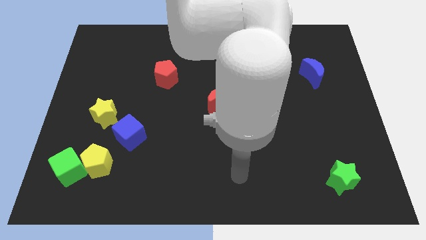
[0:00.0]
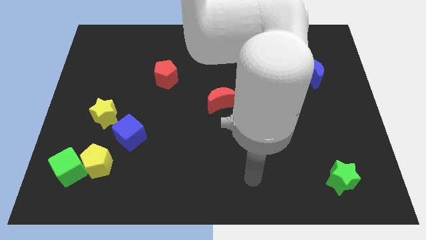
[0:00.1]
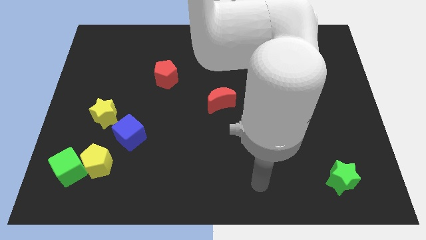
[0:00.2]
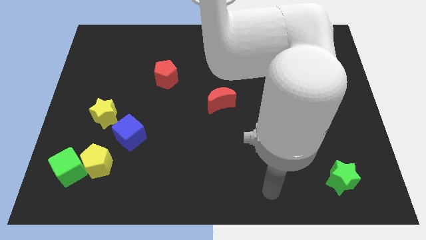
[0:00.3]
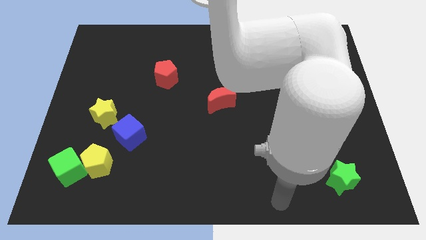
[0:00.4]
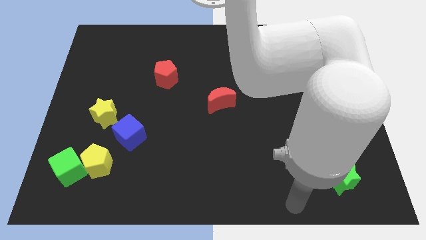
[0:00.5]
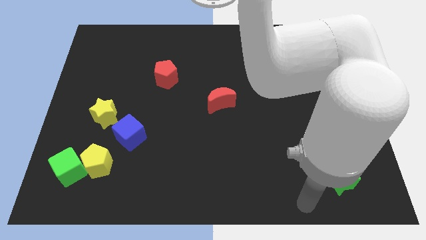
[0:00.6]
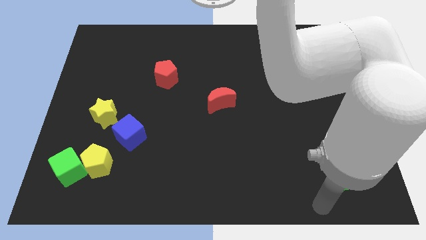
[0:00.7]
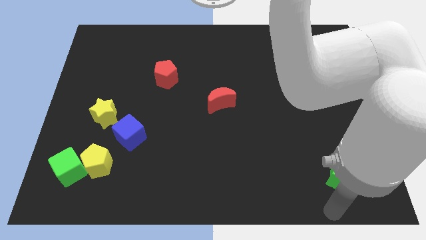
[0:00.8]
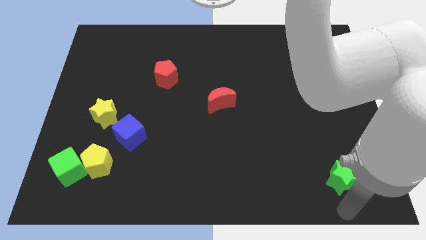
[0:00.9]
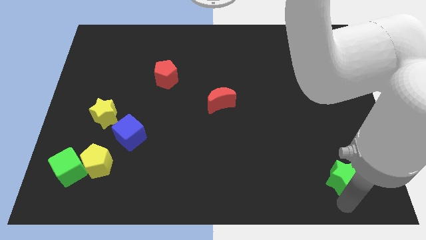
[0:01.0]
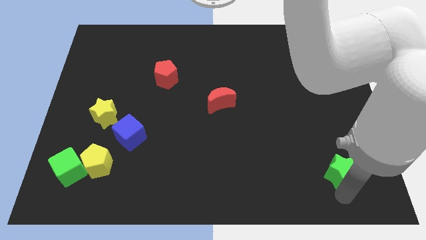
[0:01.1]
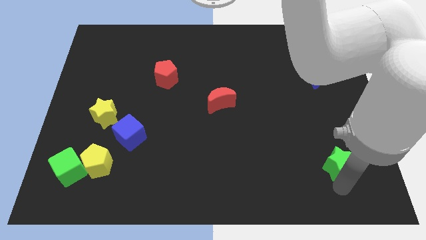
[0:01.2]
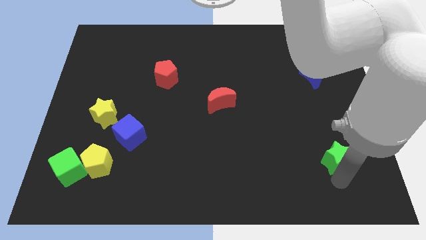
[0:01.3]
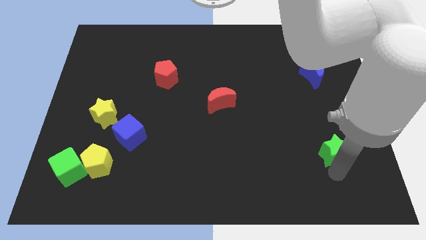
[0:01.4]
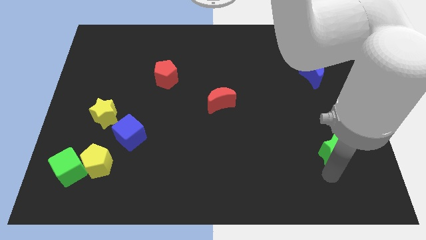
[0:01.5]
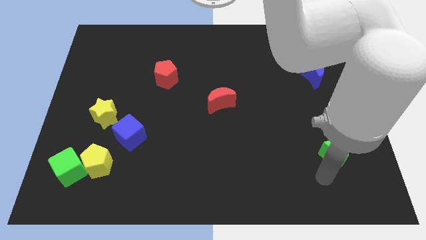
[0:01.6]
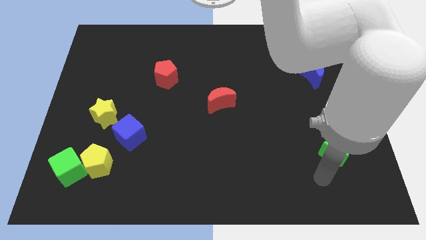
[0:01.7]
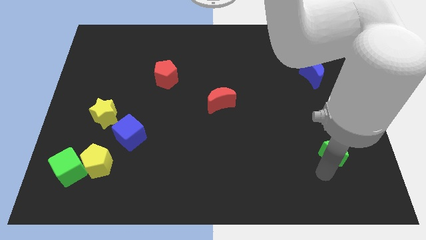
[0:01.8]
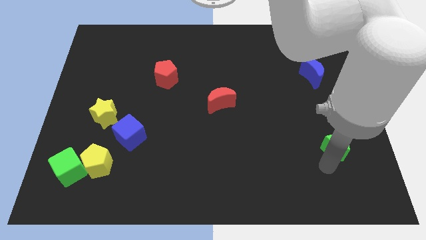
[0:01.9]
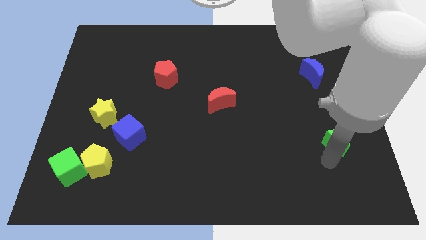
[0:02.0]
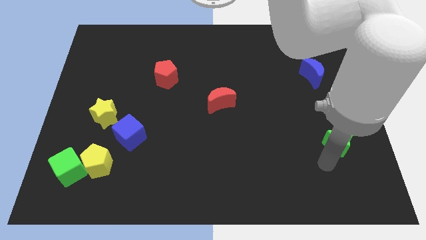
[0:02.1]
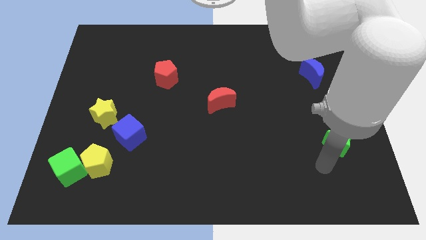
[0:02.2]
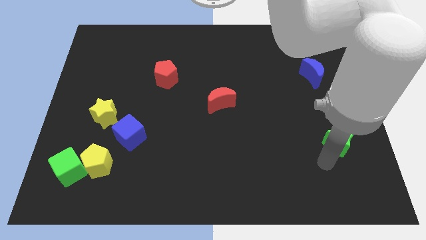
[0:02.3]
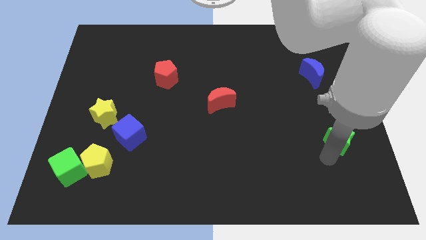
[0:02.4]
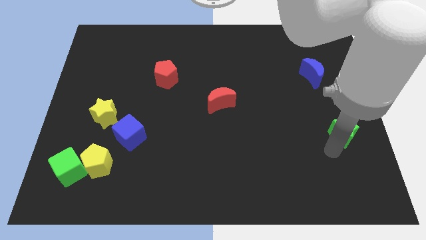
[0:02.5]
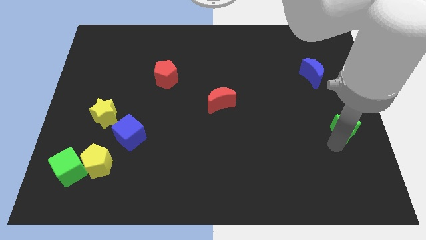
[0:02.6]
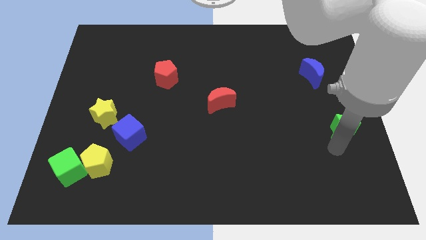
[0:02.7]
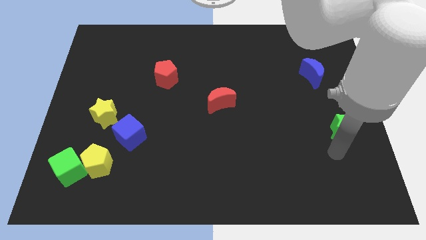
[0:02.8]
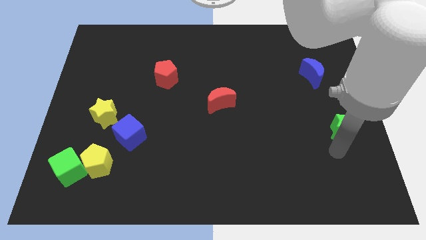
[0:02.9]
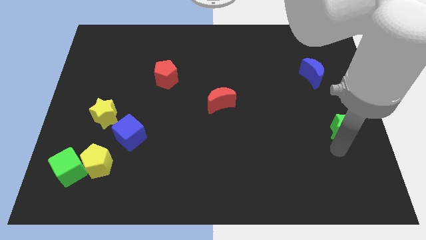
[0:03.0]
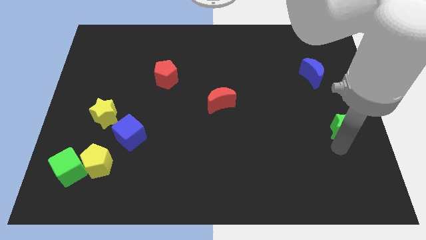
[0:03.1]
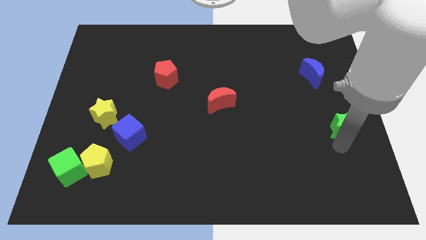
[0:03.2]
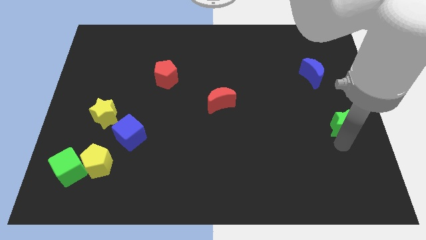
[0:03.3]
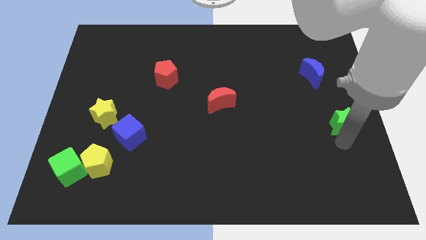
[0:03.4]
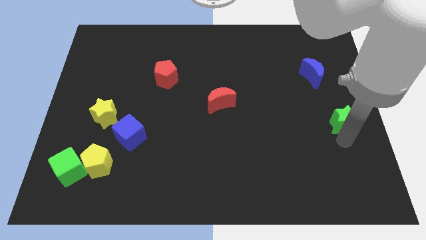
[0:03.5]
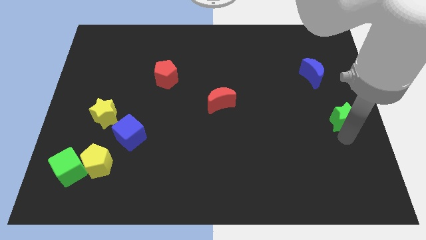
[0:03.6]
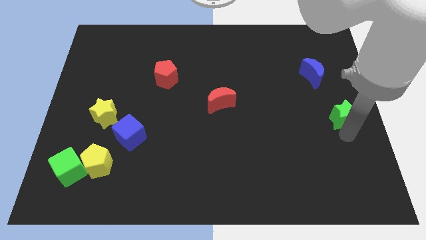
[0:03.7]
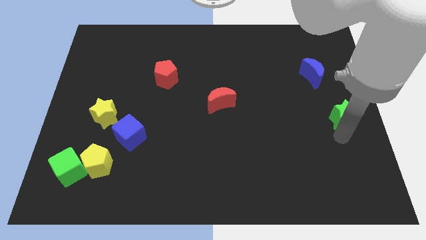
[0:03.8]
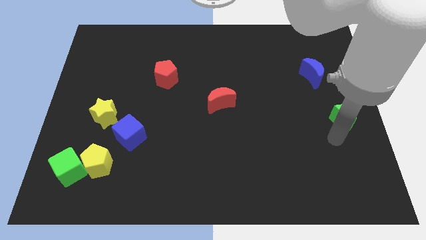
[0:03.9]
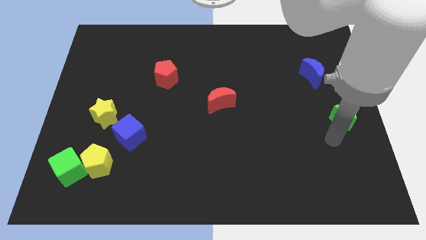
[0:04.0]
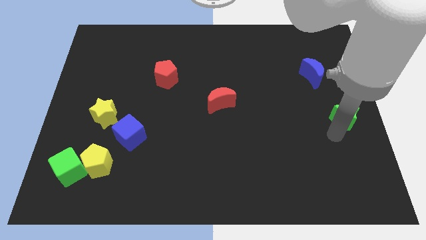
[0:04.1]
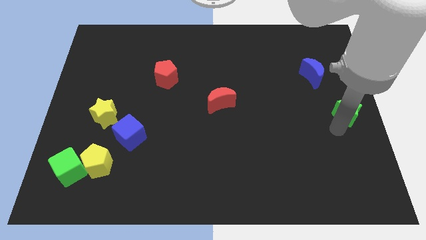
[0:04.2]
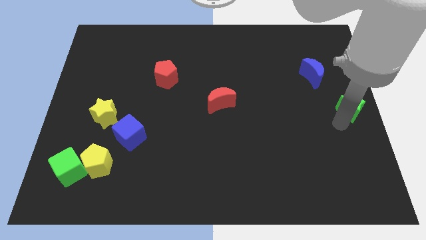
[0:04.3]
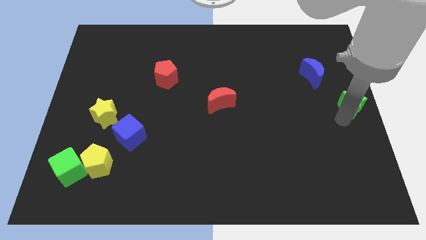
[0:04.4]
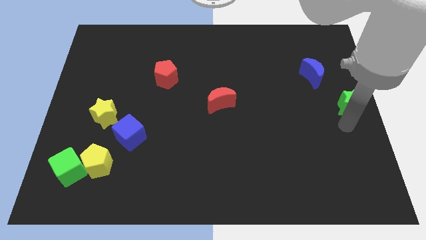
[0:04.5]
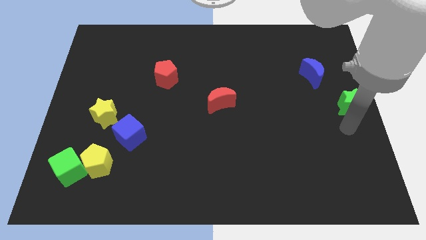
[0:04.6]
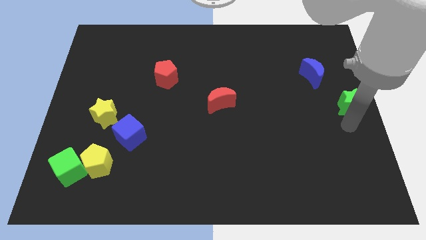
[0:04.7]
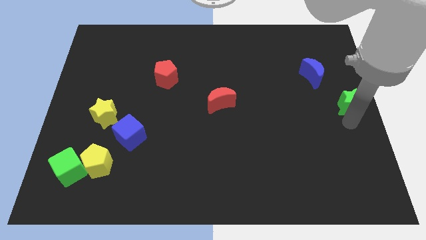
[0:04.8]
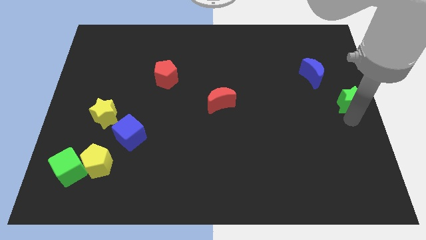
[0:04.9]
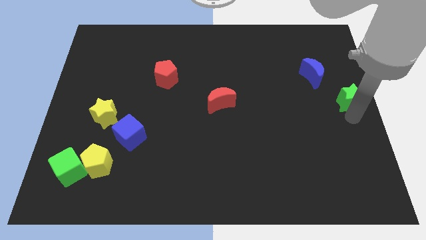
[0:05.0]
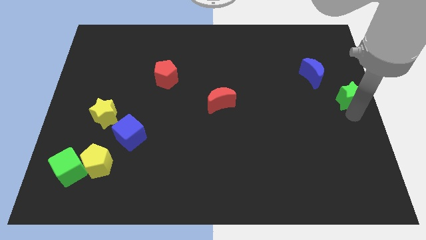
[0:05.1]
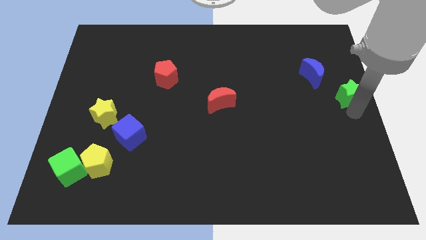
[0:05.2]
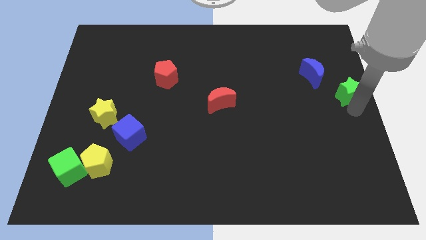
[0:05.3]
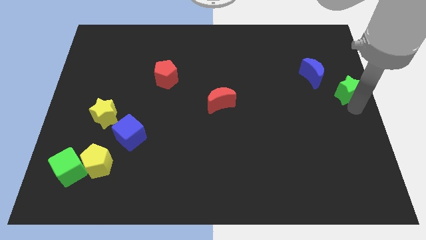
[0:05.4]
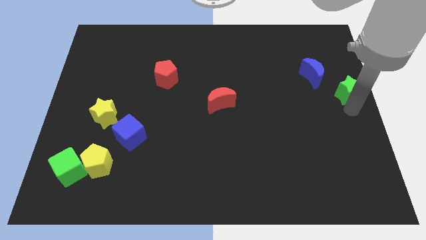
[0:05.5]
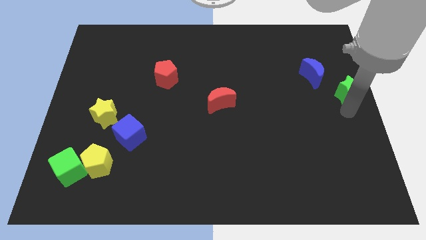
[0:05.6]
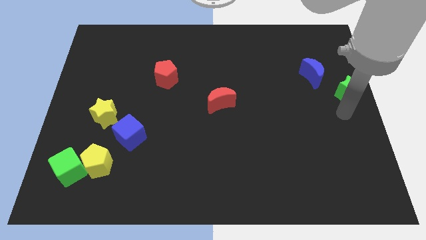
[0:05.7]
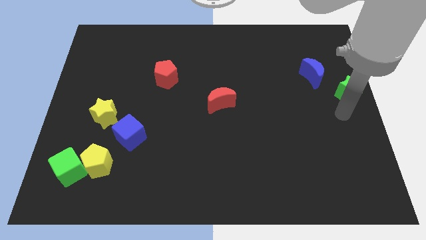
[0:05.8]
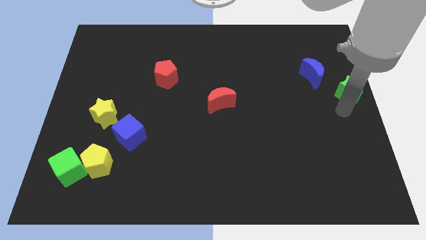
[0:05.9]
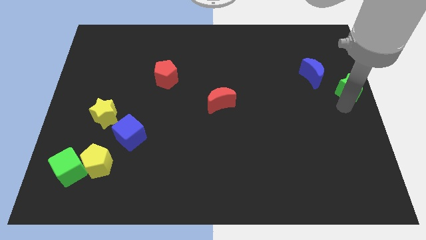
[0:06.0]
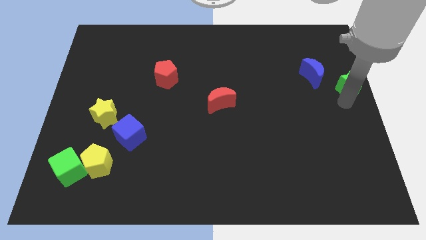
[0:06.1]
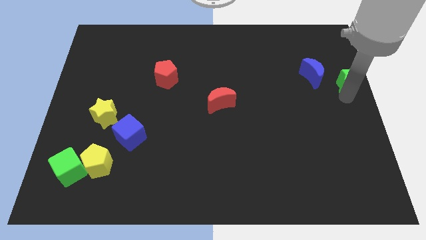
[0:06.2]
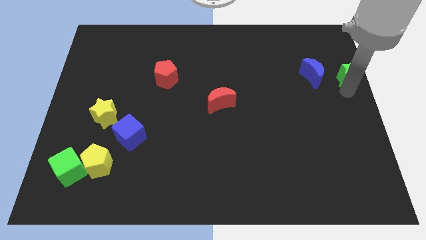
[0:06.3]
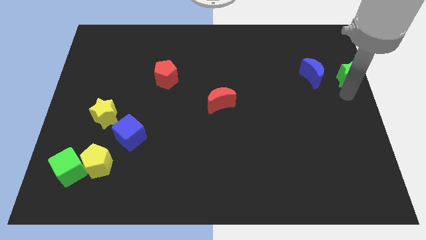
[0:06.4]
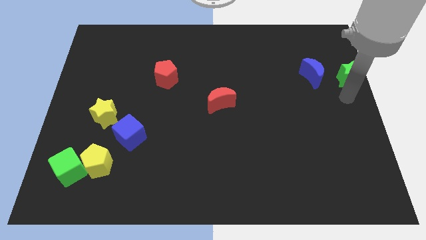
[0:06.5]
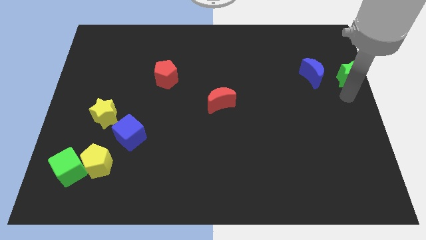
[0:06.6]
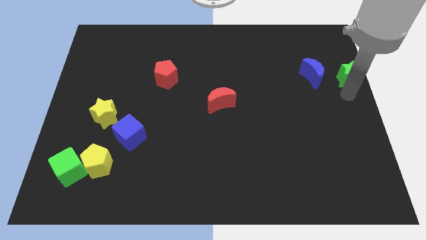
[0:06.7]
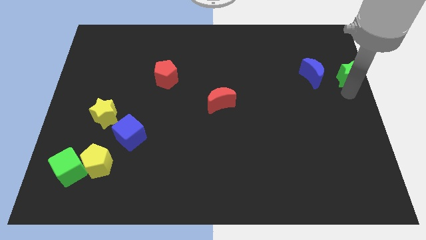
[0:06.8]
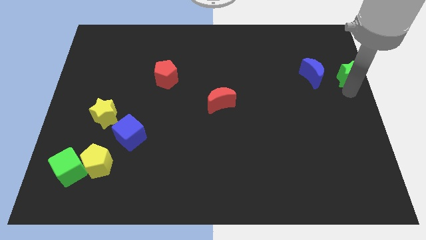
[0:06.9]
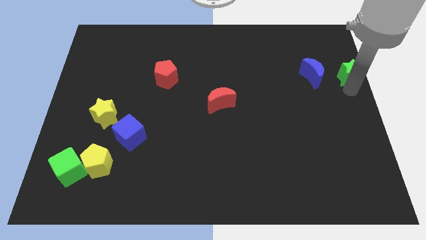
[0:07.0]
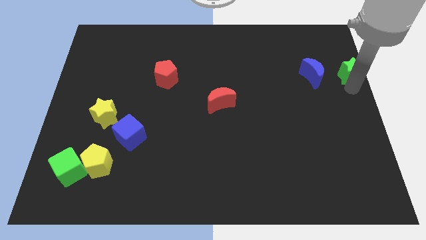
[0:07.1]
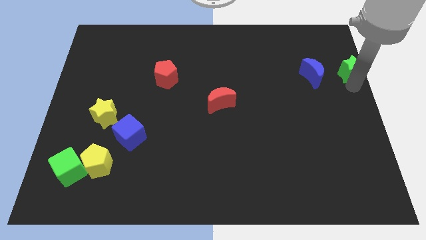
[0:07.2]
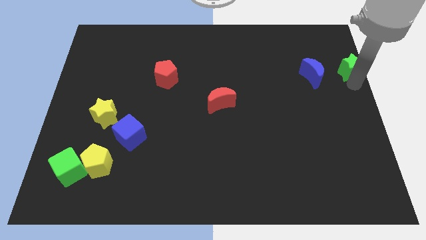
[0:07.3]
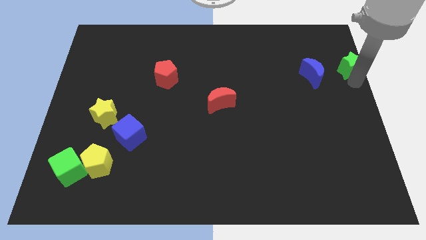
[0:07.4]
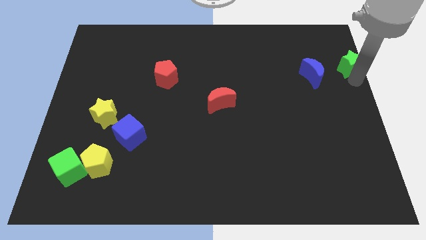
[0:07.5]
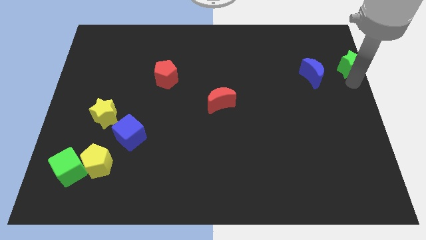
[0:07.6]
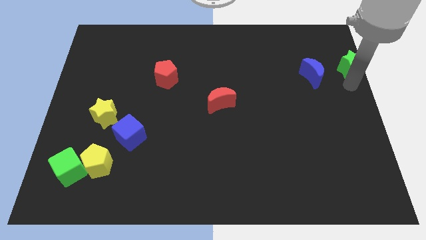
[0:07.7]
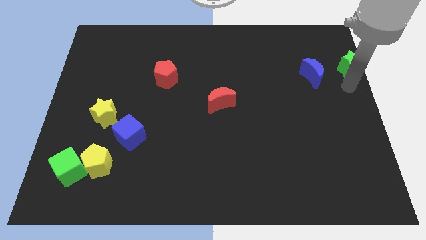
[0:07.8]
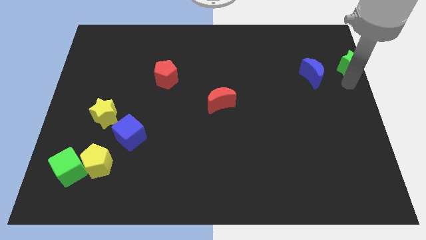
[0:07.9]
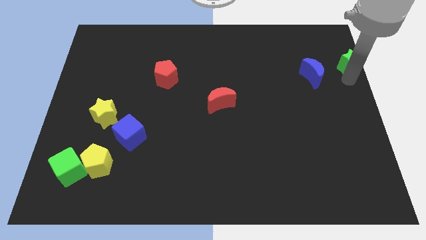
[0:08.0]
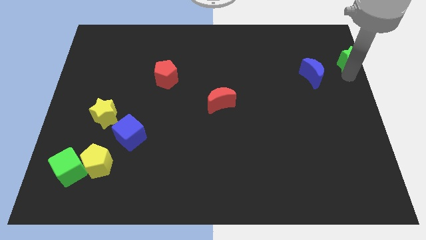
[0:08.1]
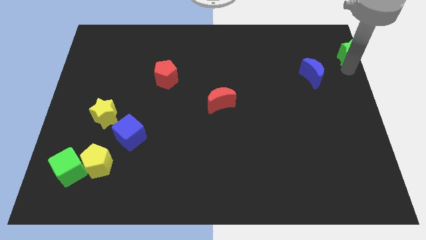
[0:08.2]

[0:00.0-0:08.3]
put the green star to the top right corner
